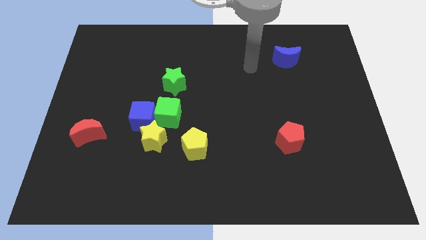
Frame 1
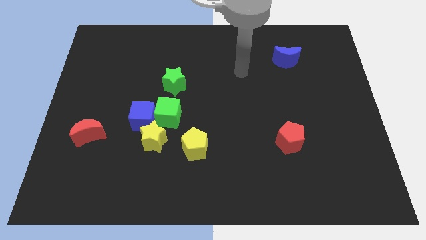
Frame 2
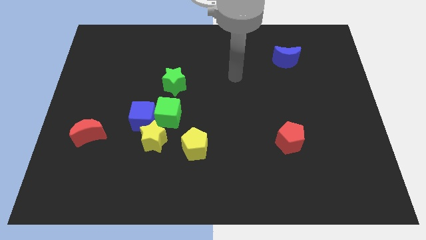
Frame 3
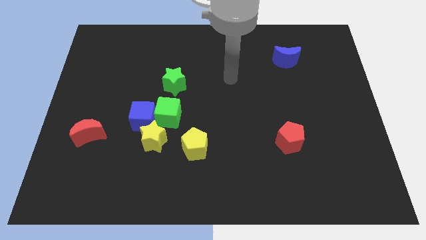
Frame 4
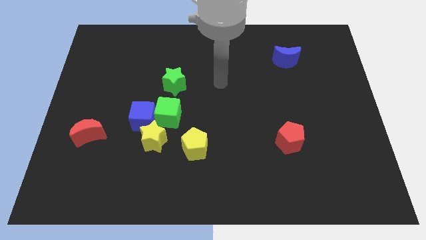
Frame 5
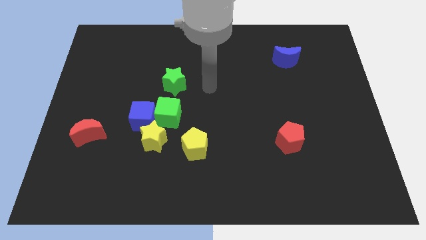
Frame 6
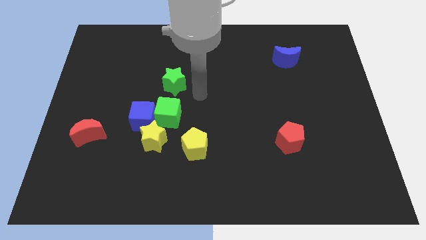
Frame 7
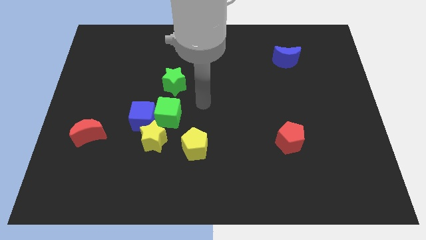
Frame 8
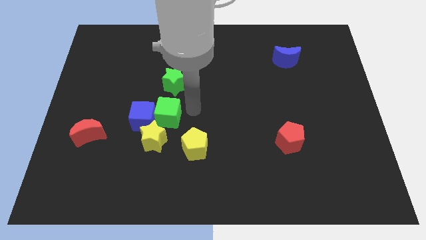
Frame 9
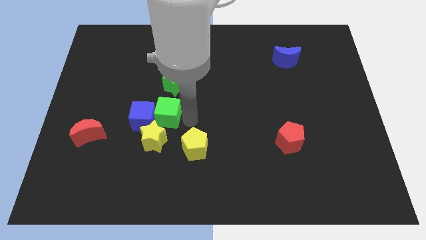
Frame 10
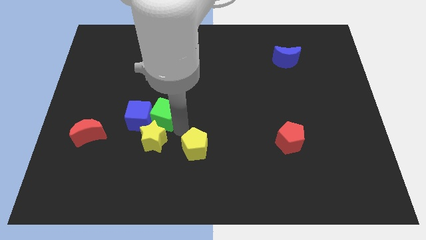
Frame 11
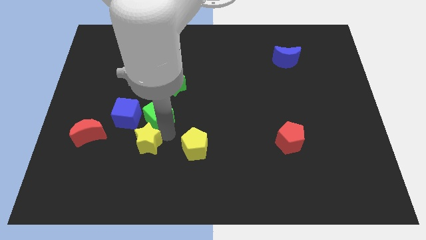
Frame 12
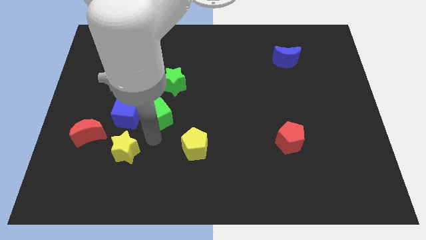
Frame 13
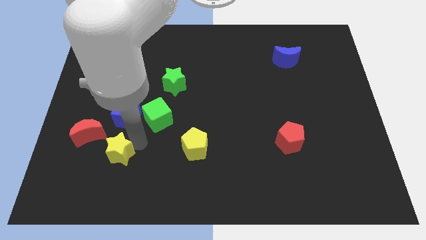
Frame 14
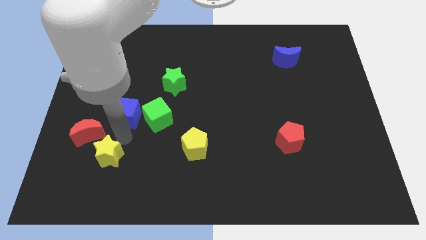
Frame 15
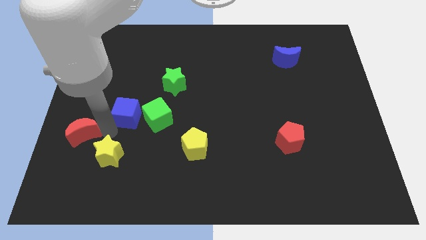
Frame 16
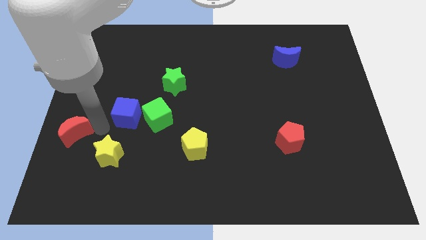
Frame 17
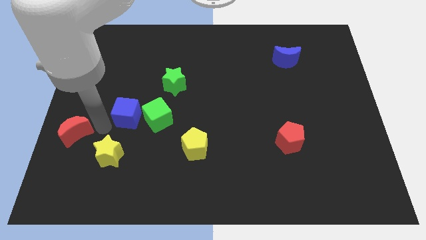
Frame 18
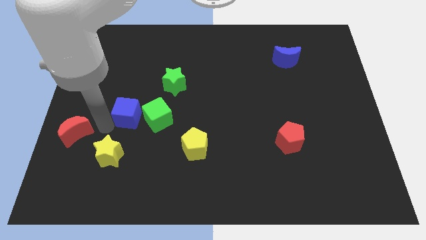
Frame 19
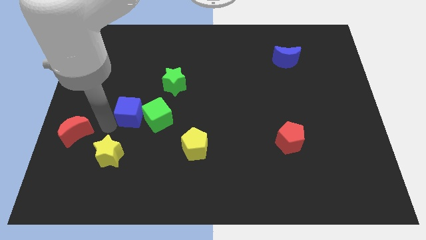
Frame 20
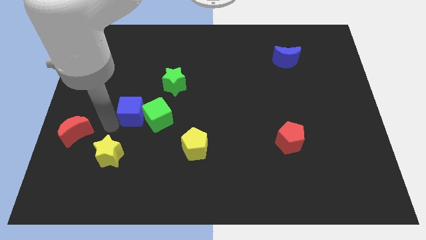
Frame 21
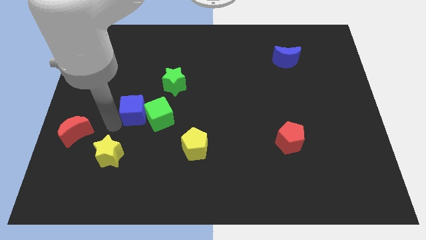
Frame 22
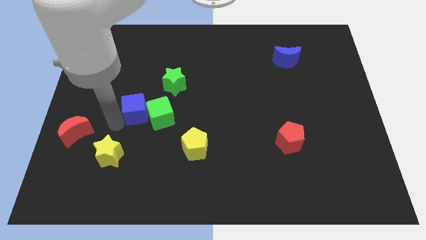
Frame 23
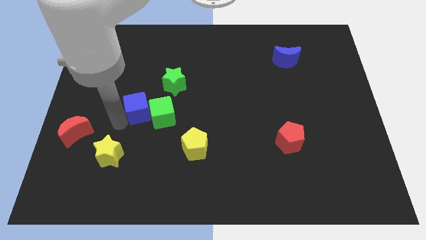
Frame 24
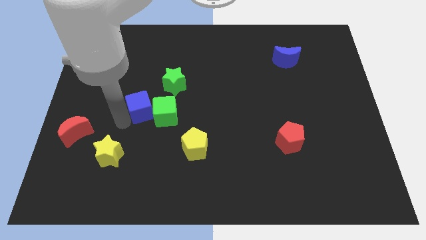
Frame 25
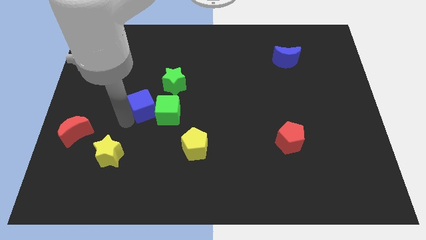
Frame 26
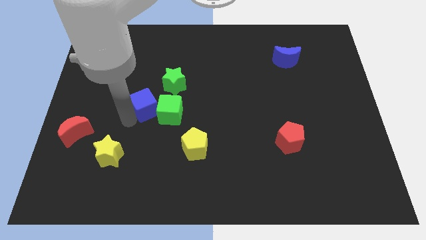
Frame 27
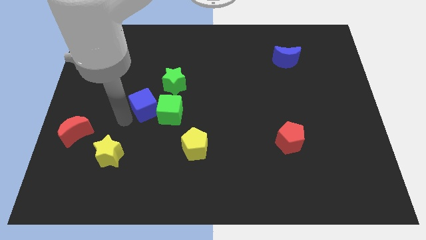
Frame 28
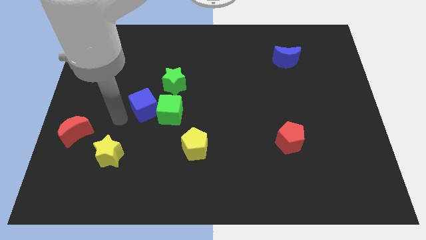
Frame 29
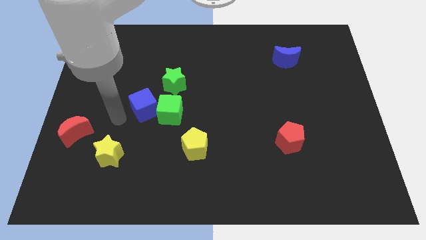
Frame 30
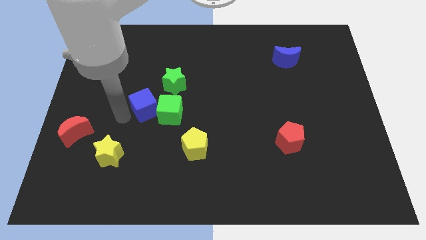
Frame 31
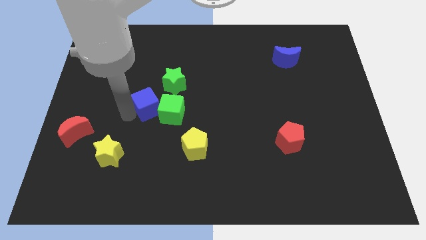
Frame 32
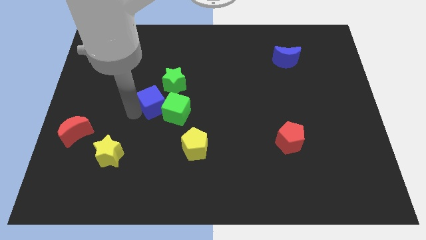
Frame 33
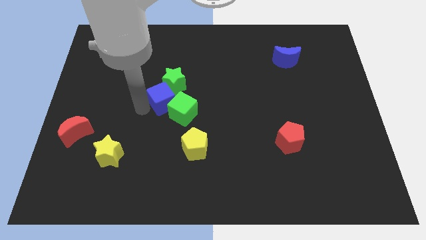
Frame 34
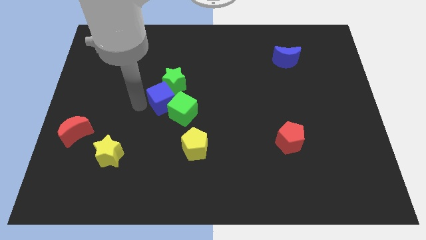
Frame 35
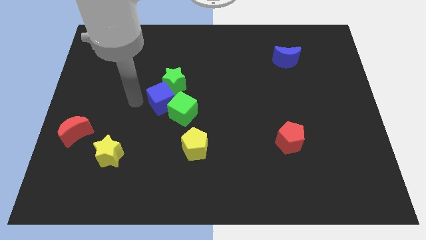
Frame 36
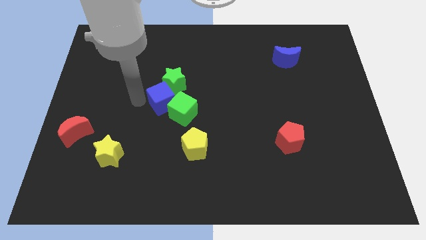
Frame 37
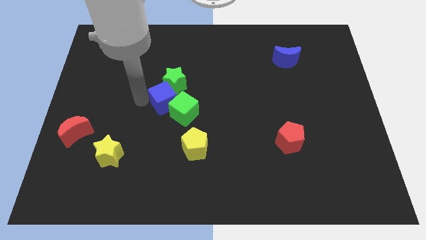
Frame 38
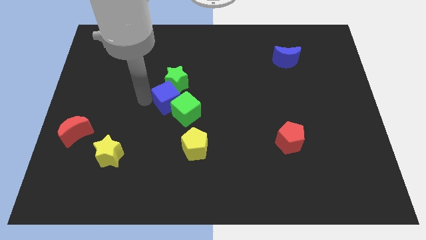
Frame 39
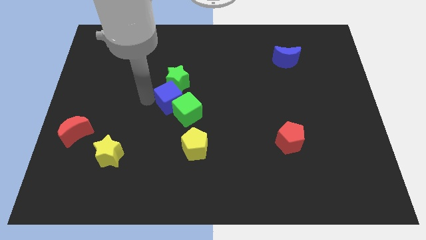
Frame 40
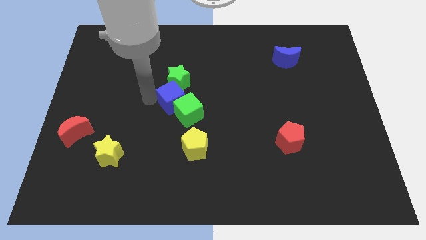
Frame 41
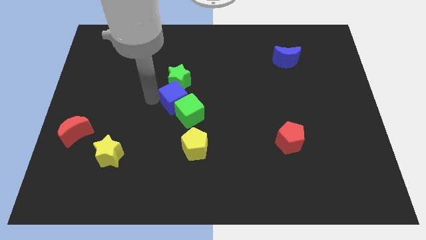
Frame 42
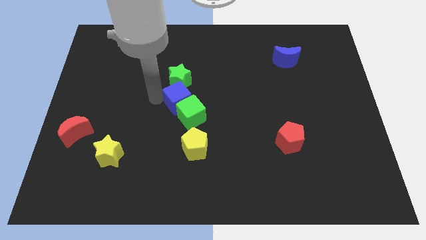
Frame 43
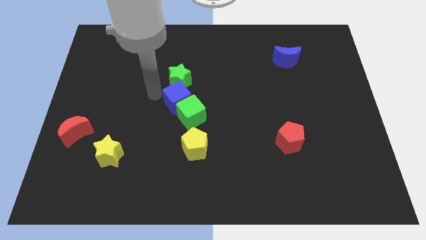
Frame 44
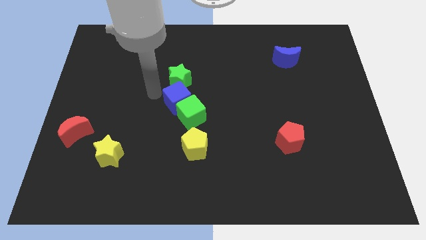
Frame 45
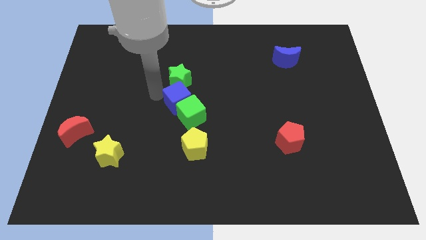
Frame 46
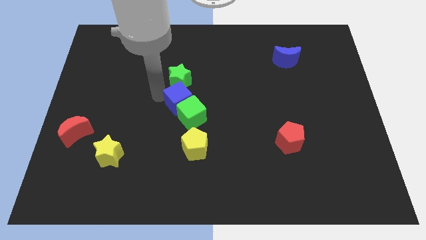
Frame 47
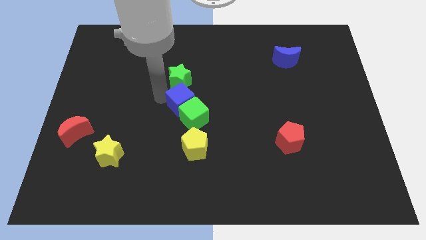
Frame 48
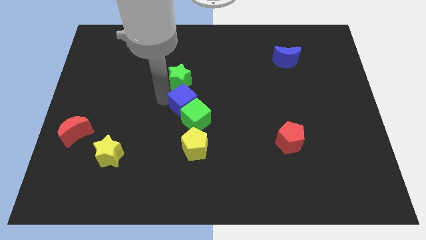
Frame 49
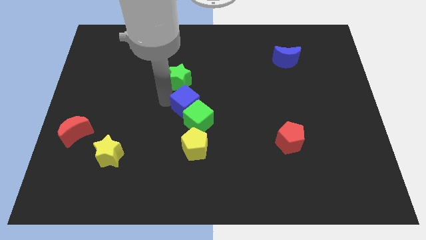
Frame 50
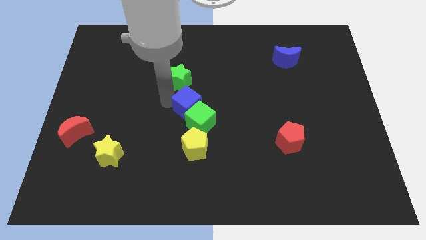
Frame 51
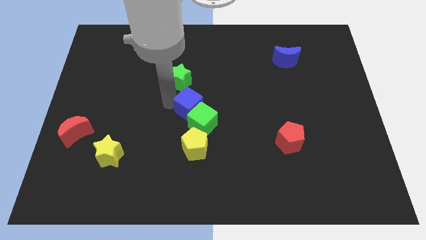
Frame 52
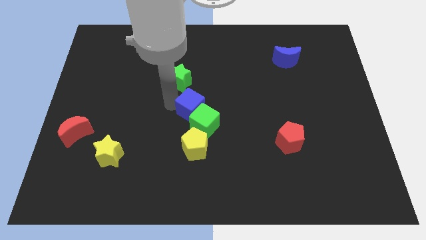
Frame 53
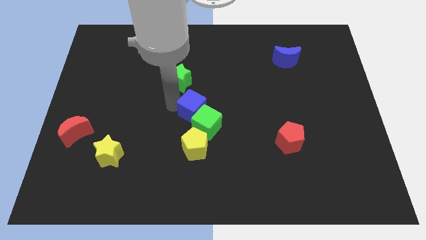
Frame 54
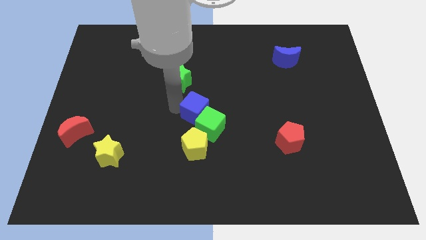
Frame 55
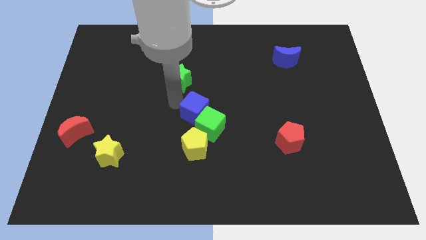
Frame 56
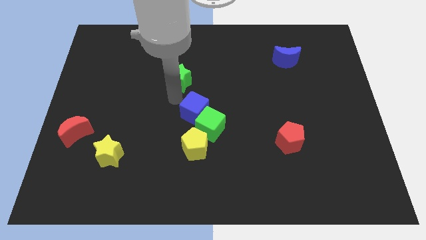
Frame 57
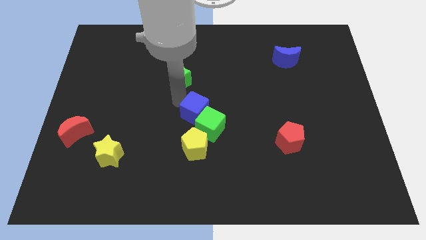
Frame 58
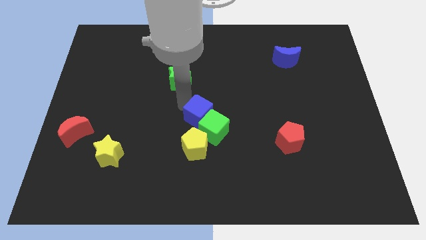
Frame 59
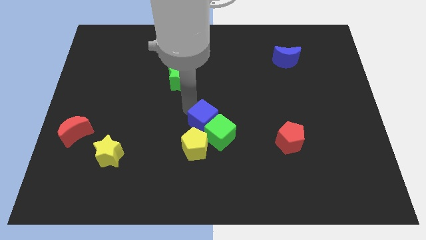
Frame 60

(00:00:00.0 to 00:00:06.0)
move the blue cube to the top right of the yellow pentagon
